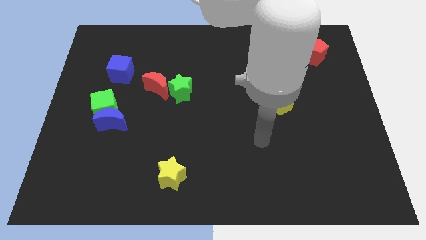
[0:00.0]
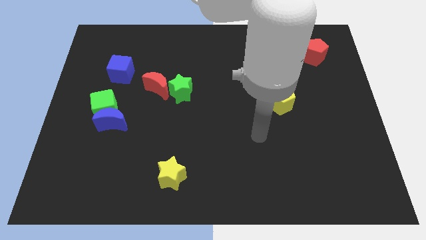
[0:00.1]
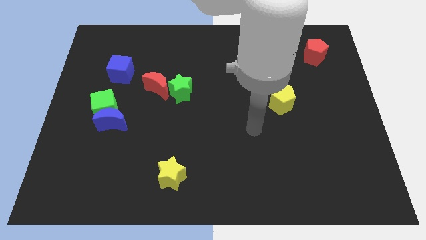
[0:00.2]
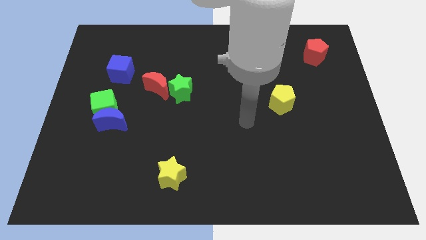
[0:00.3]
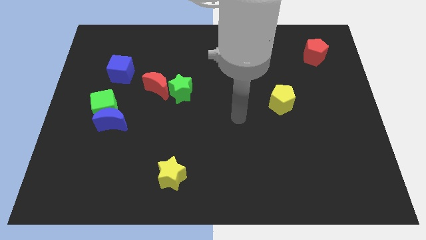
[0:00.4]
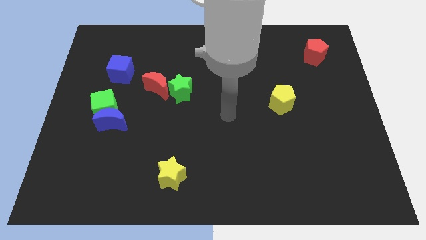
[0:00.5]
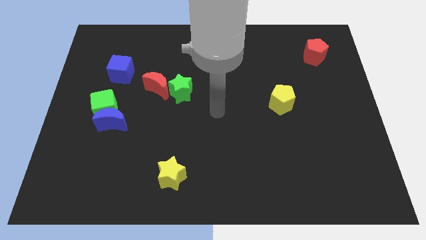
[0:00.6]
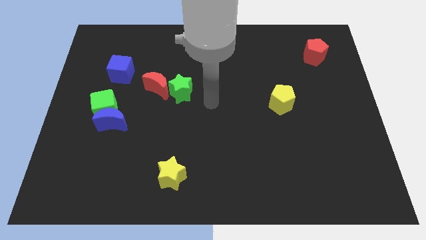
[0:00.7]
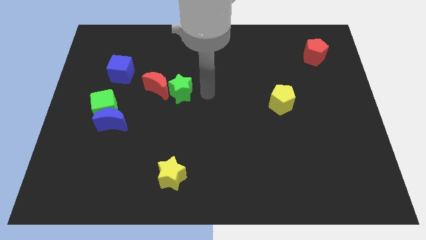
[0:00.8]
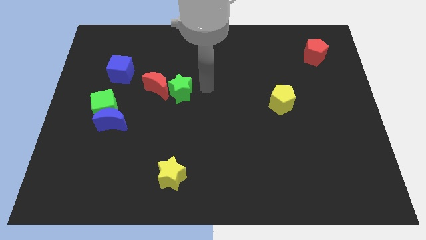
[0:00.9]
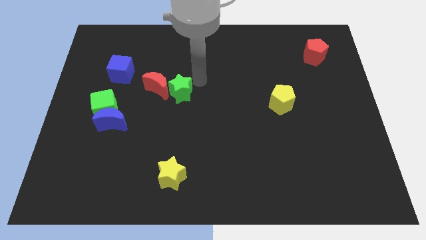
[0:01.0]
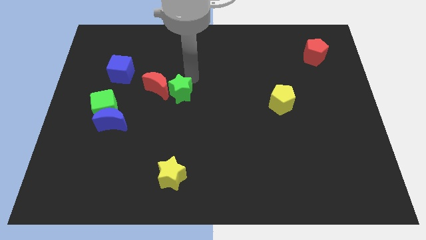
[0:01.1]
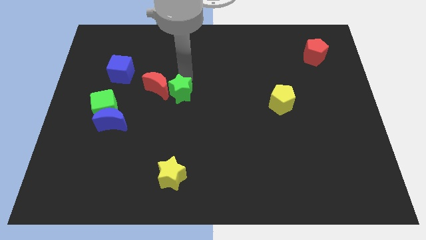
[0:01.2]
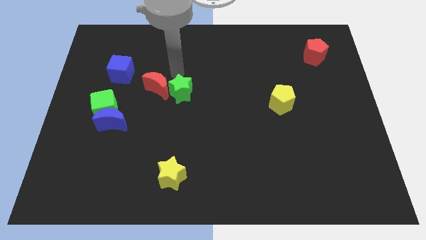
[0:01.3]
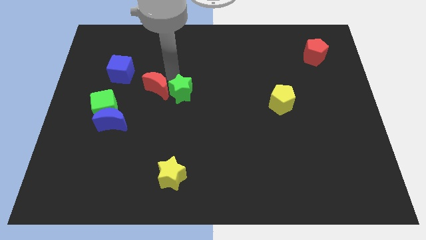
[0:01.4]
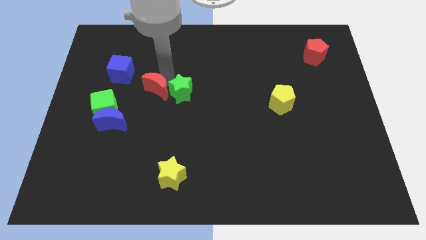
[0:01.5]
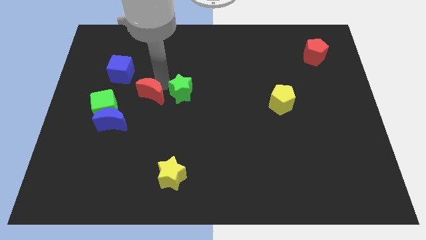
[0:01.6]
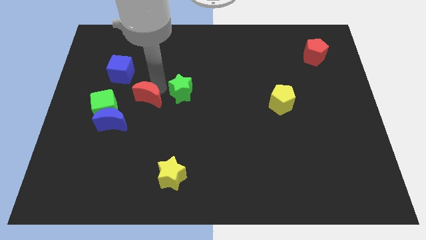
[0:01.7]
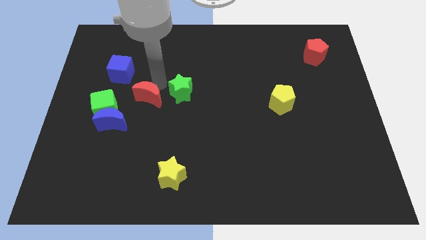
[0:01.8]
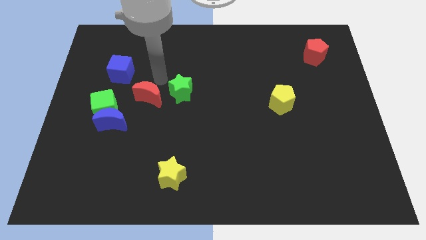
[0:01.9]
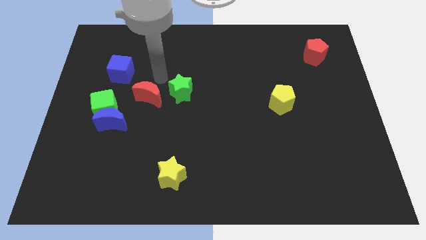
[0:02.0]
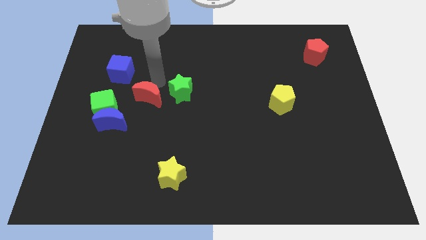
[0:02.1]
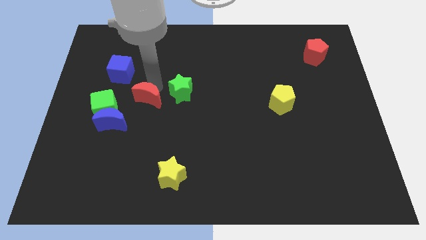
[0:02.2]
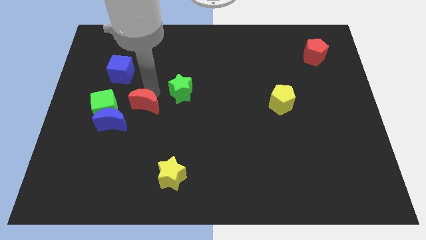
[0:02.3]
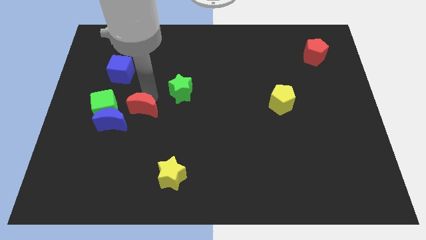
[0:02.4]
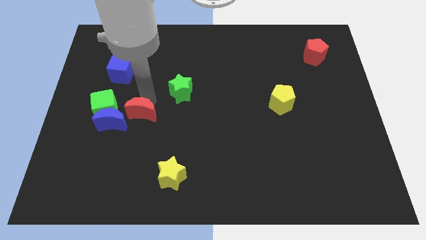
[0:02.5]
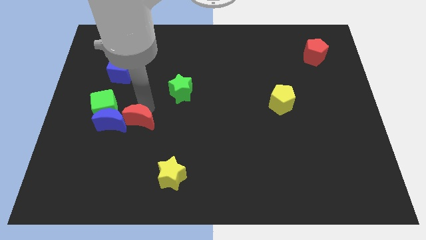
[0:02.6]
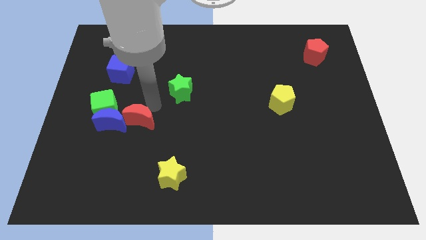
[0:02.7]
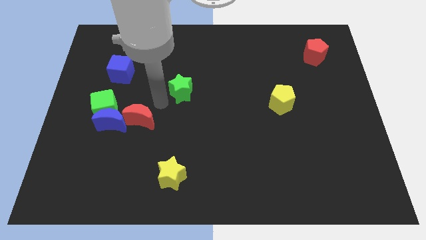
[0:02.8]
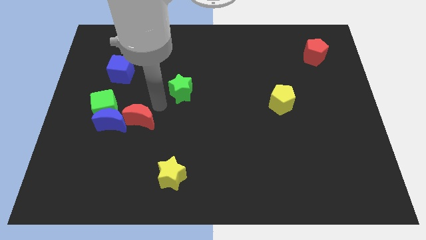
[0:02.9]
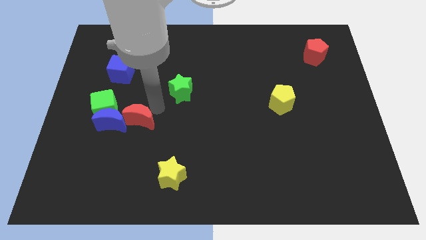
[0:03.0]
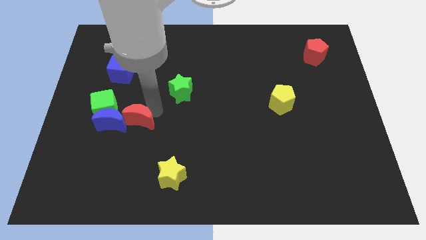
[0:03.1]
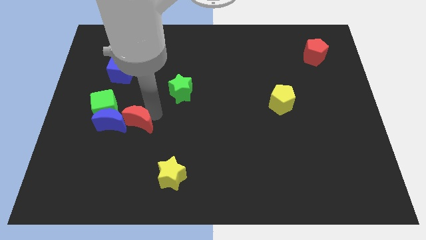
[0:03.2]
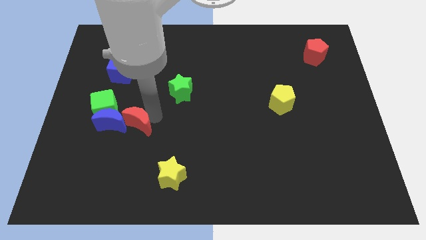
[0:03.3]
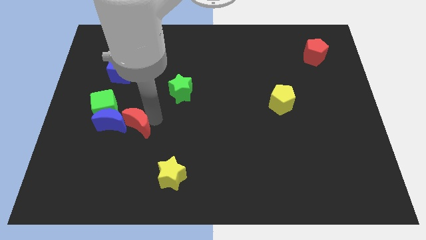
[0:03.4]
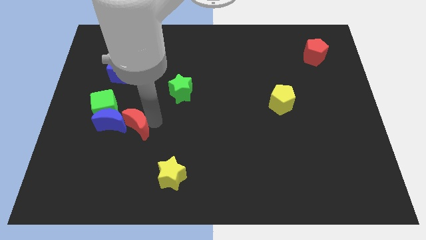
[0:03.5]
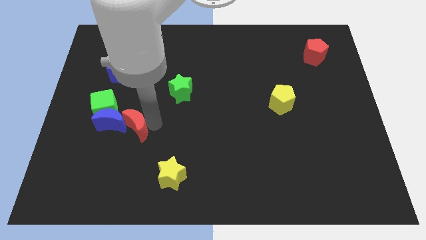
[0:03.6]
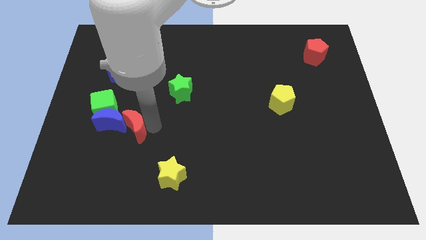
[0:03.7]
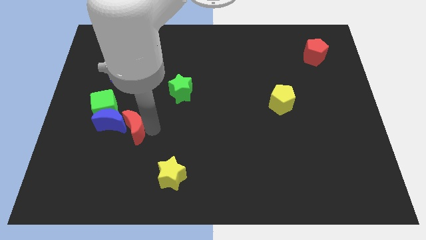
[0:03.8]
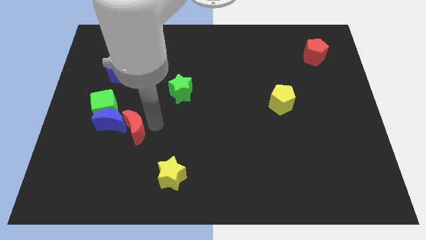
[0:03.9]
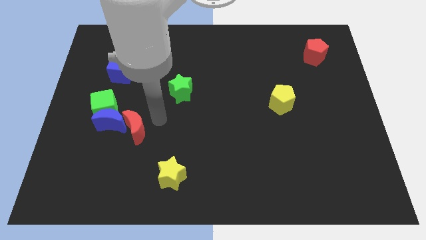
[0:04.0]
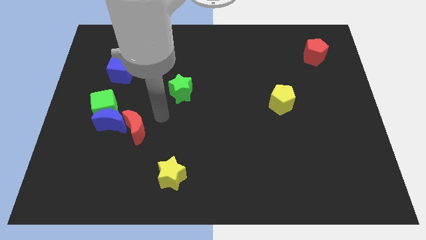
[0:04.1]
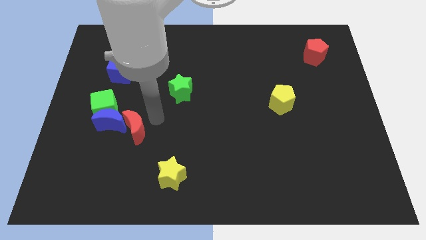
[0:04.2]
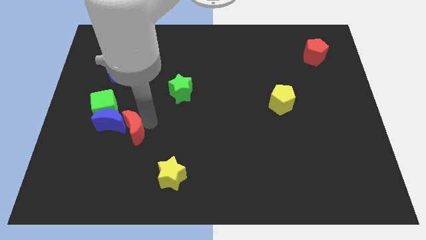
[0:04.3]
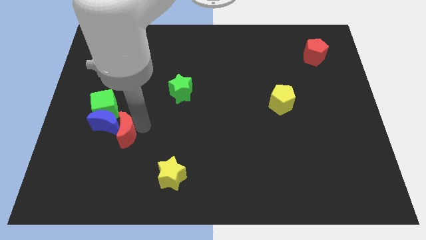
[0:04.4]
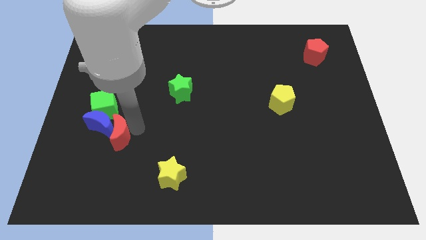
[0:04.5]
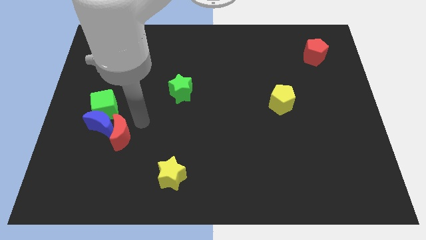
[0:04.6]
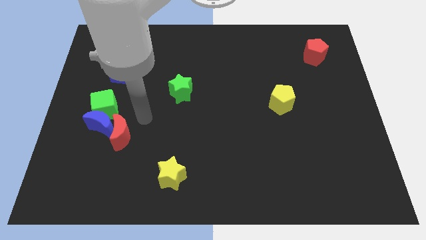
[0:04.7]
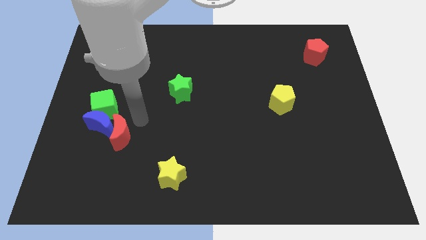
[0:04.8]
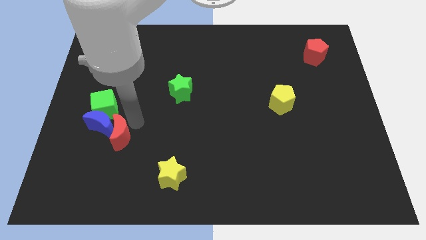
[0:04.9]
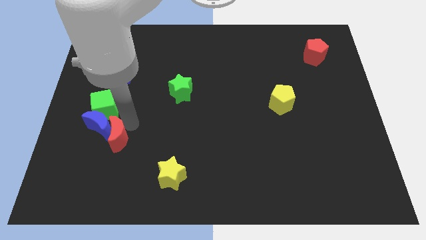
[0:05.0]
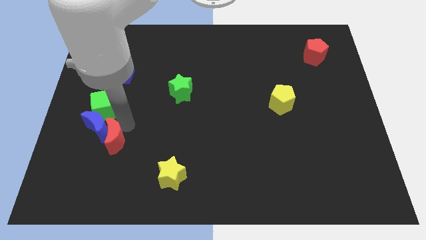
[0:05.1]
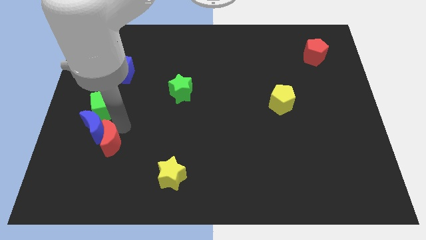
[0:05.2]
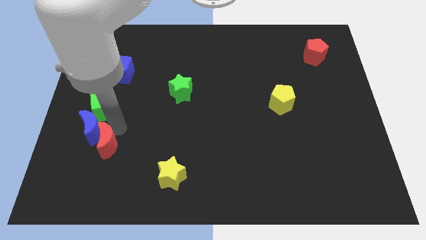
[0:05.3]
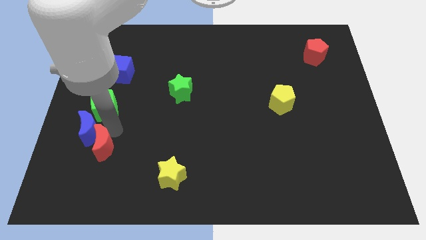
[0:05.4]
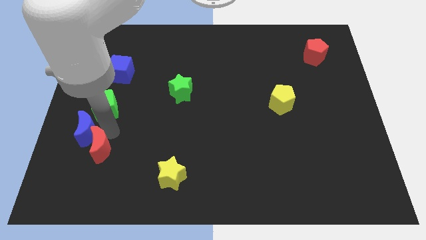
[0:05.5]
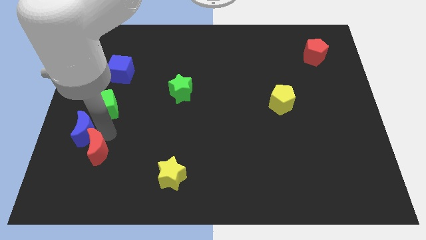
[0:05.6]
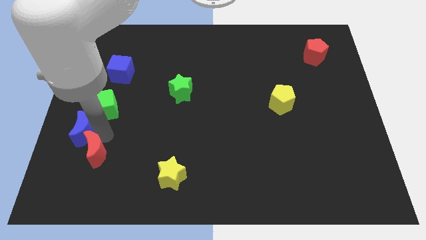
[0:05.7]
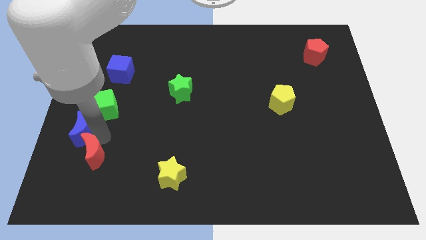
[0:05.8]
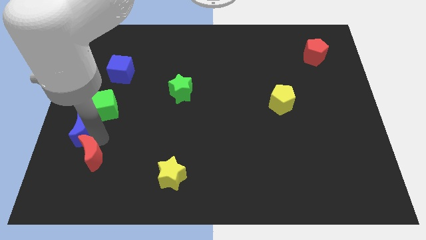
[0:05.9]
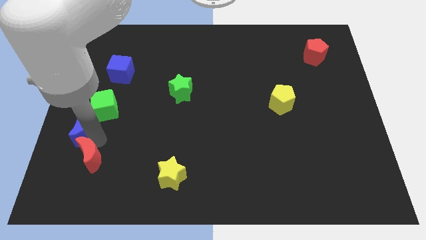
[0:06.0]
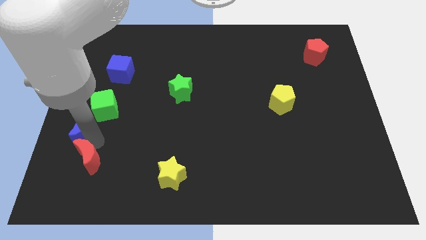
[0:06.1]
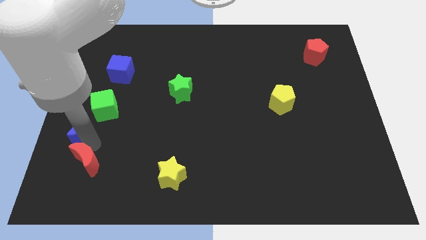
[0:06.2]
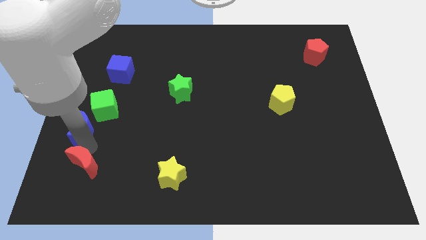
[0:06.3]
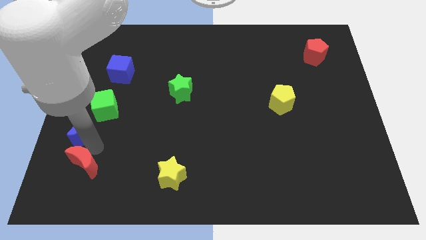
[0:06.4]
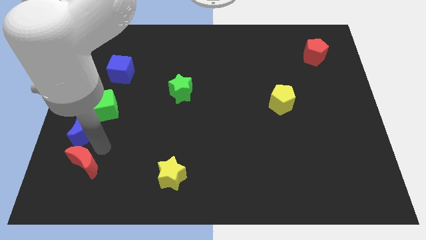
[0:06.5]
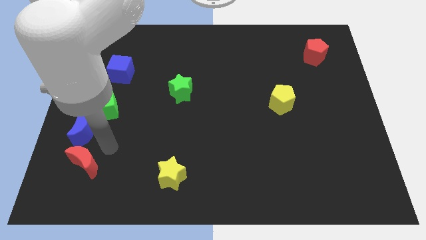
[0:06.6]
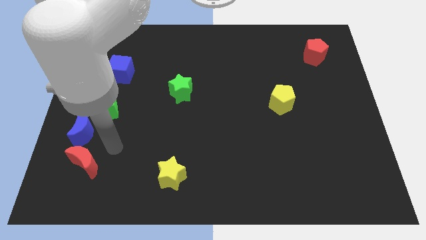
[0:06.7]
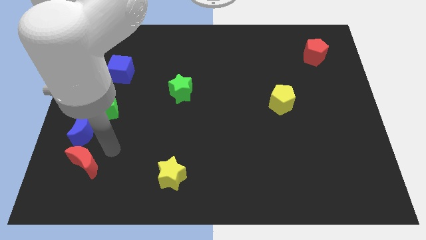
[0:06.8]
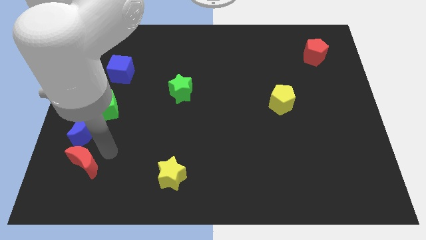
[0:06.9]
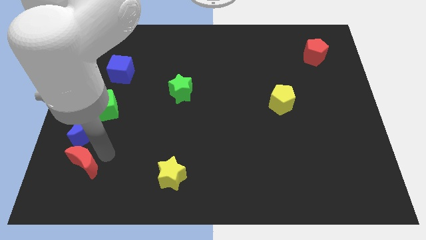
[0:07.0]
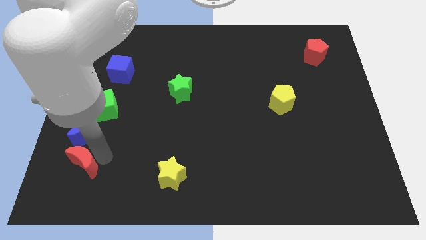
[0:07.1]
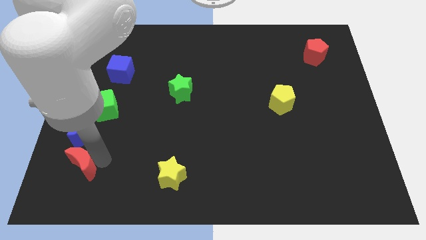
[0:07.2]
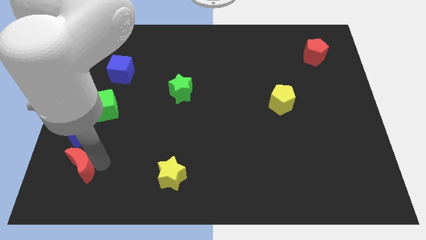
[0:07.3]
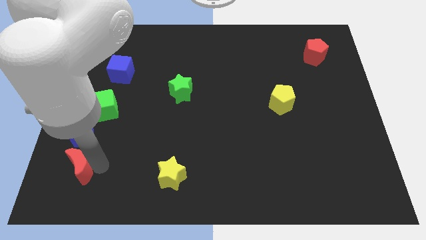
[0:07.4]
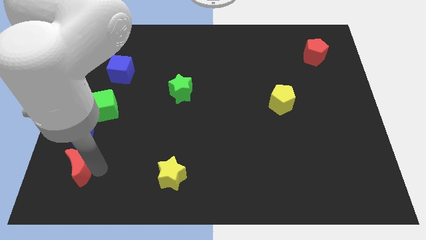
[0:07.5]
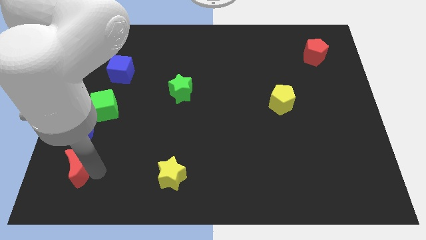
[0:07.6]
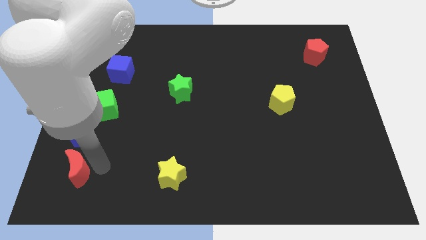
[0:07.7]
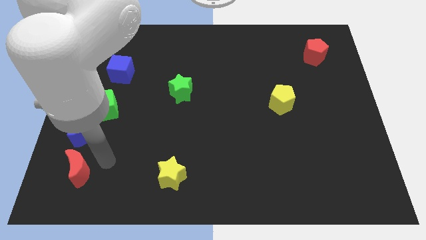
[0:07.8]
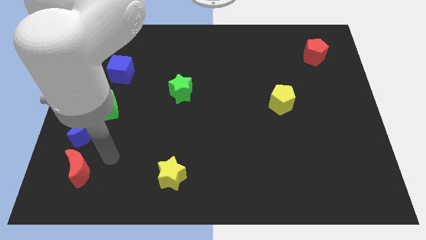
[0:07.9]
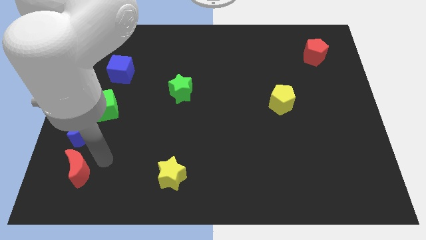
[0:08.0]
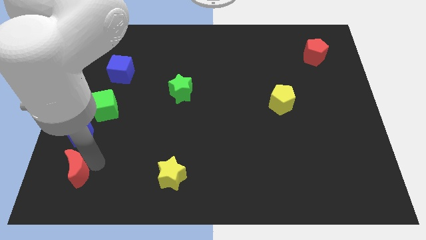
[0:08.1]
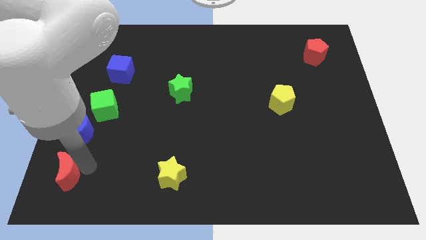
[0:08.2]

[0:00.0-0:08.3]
slide the red moon to the lower left corner

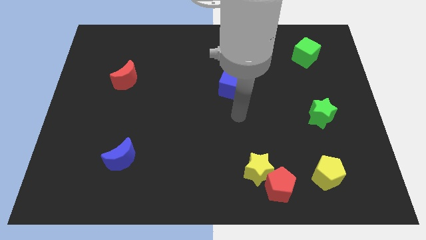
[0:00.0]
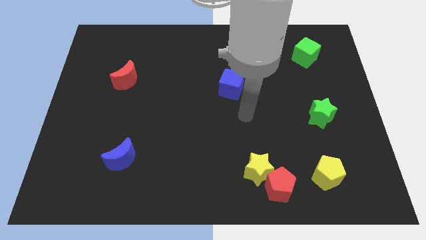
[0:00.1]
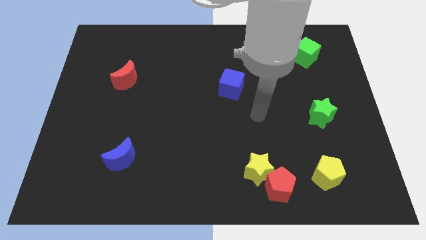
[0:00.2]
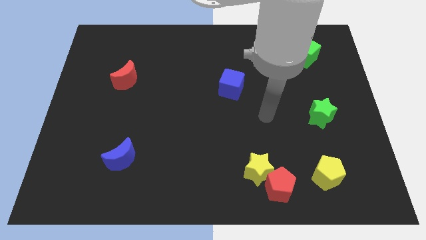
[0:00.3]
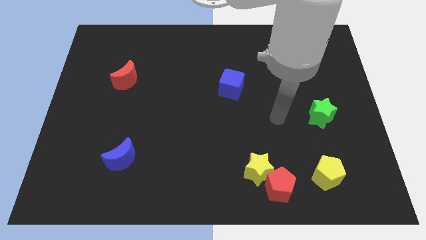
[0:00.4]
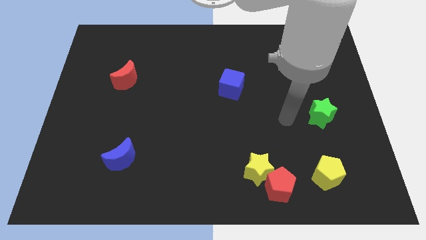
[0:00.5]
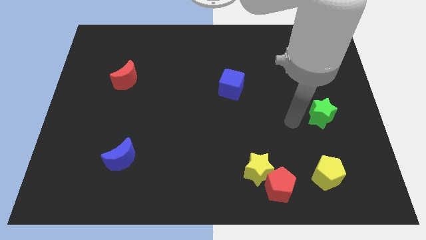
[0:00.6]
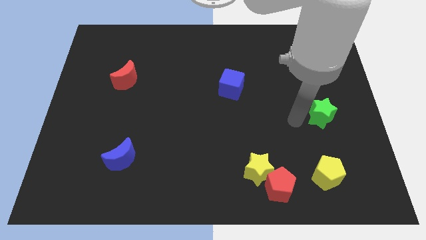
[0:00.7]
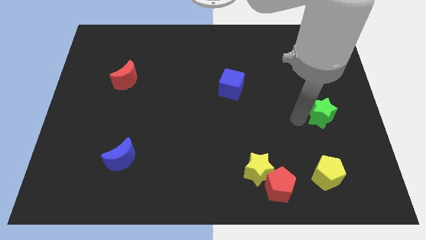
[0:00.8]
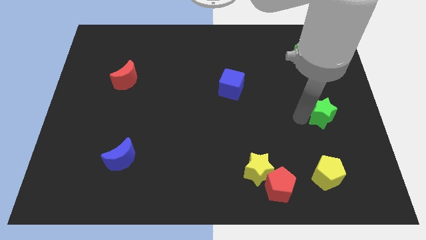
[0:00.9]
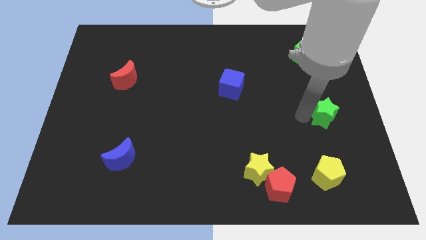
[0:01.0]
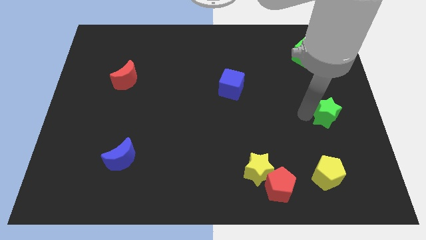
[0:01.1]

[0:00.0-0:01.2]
put the green star to the center right
